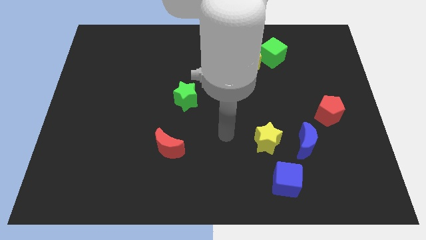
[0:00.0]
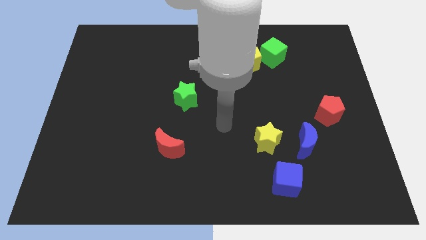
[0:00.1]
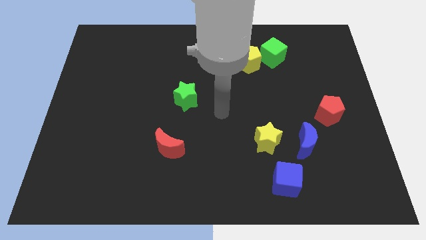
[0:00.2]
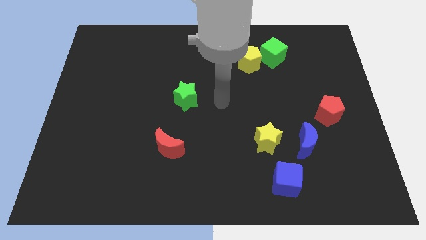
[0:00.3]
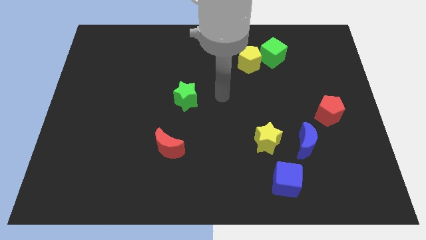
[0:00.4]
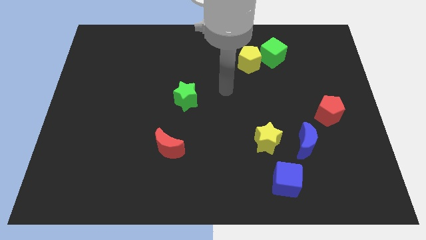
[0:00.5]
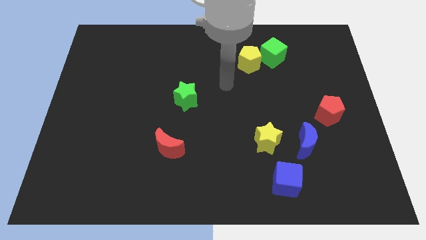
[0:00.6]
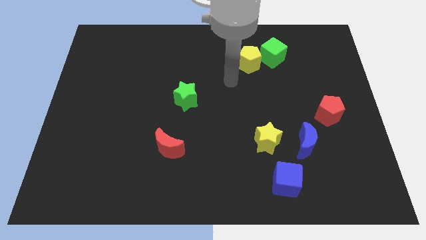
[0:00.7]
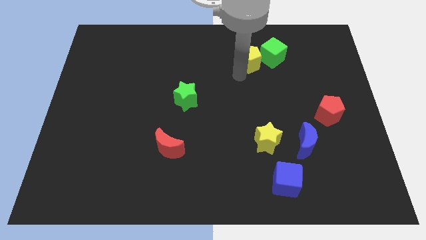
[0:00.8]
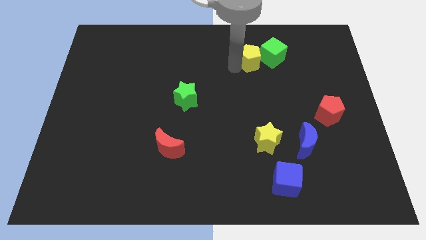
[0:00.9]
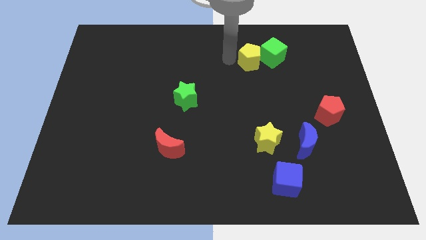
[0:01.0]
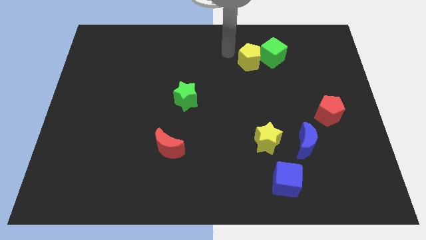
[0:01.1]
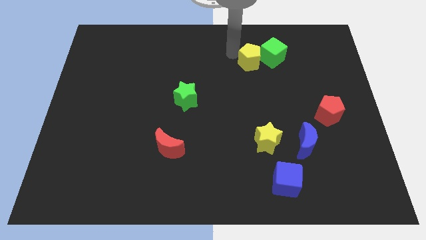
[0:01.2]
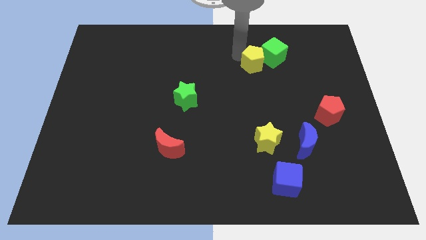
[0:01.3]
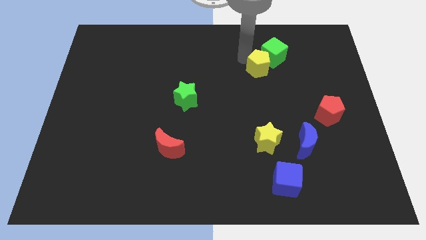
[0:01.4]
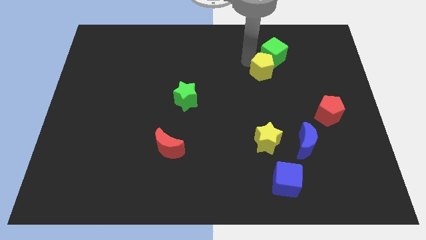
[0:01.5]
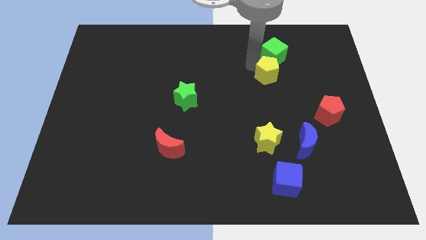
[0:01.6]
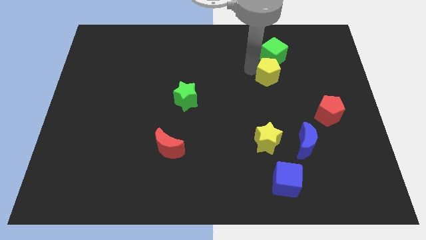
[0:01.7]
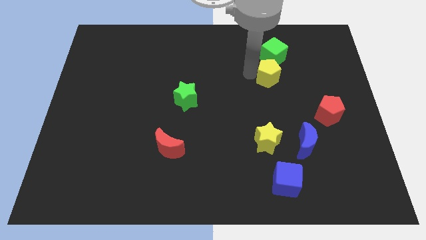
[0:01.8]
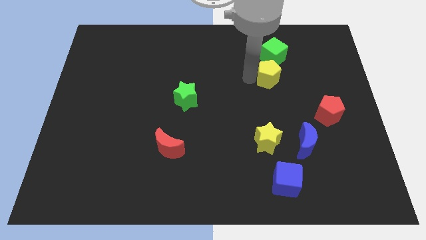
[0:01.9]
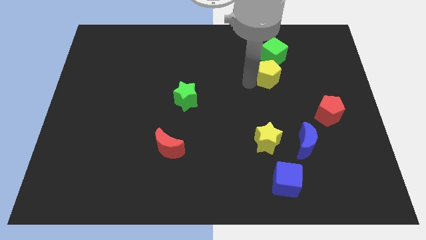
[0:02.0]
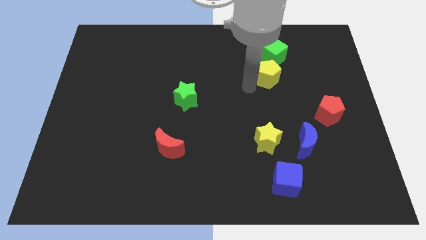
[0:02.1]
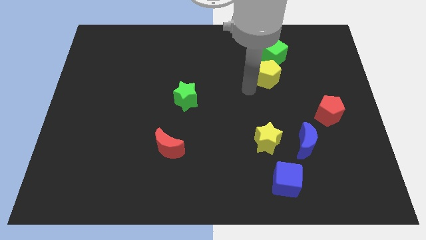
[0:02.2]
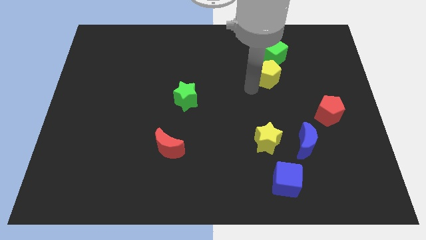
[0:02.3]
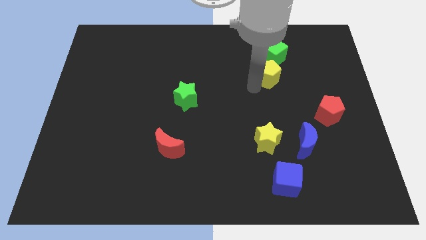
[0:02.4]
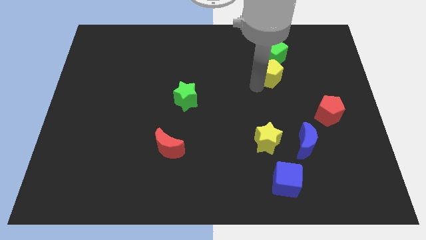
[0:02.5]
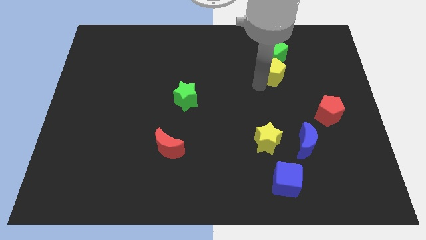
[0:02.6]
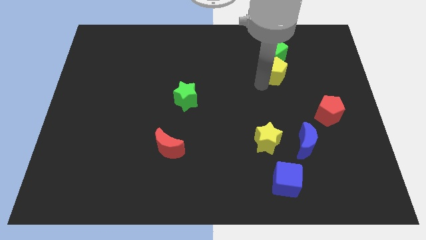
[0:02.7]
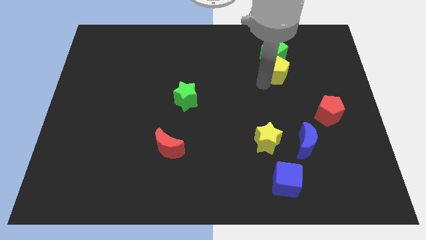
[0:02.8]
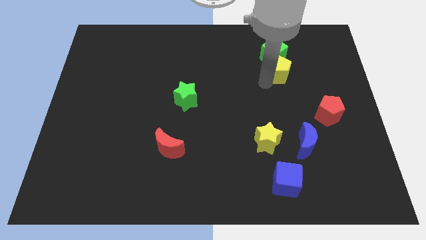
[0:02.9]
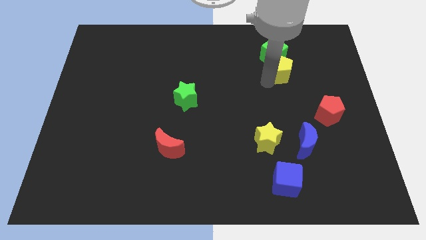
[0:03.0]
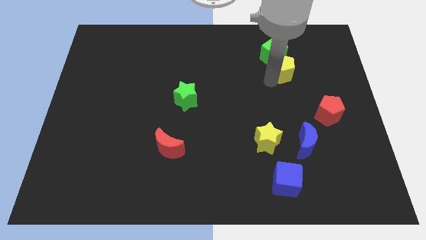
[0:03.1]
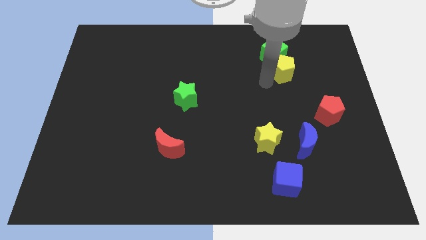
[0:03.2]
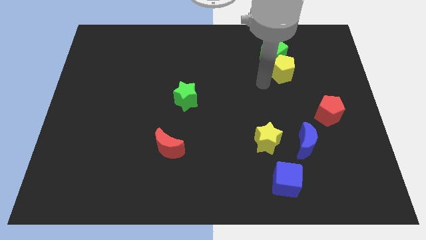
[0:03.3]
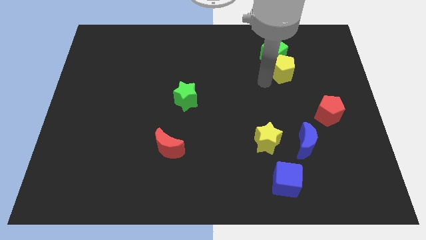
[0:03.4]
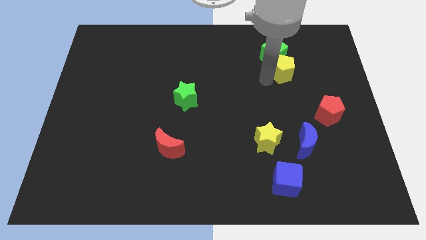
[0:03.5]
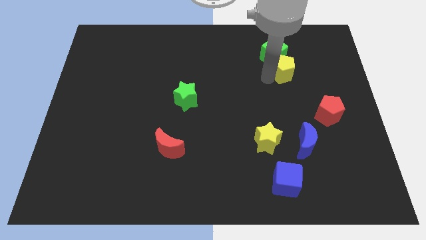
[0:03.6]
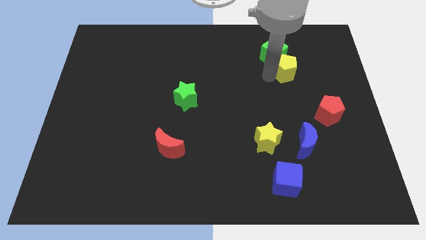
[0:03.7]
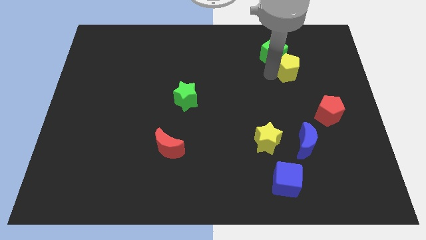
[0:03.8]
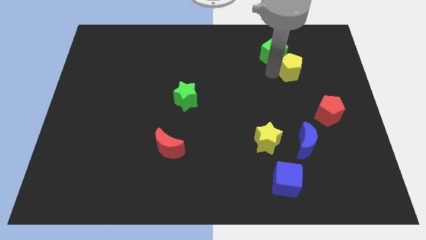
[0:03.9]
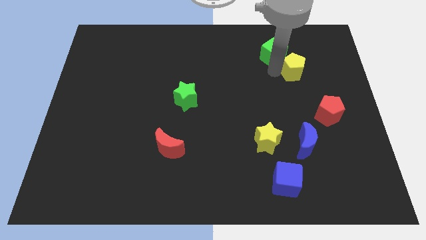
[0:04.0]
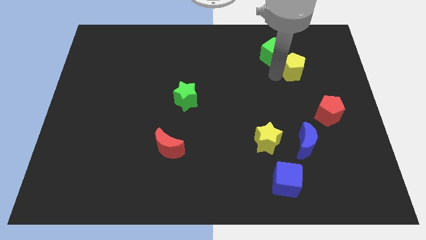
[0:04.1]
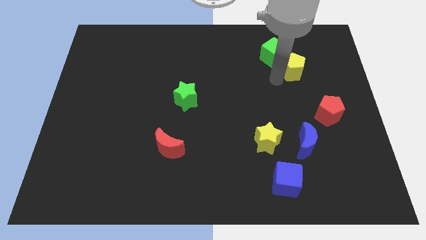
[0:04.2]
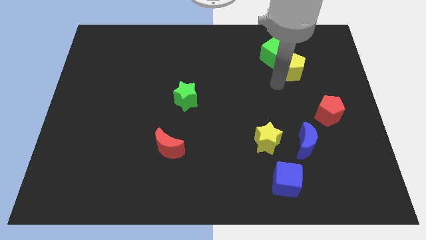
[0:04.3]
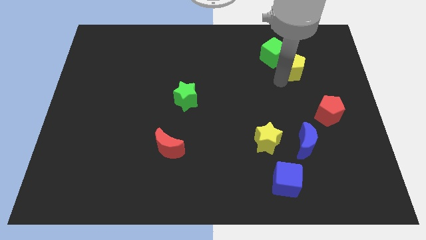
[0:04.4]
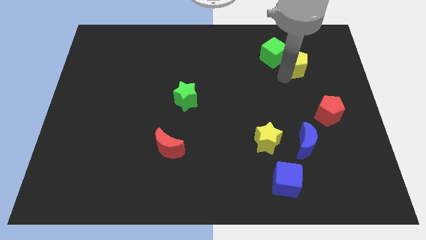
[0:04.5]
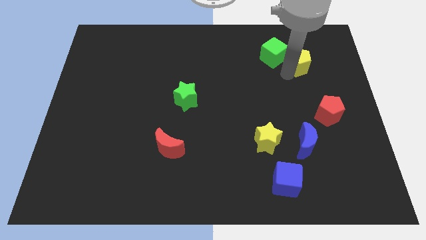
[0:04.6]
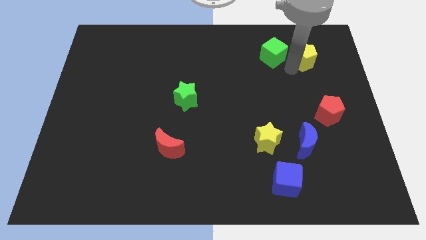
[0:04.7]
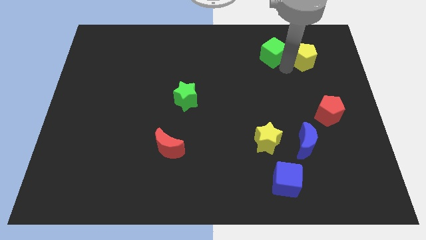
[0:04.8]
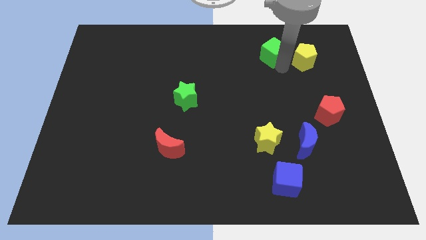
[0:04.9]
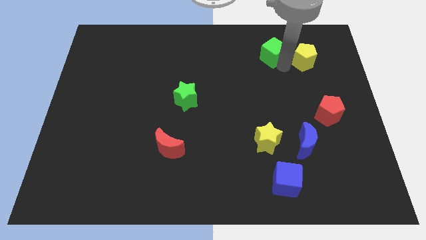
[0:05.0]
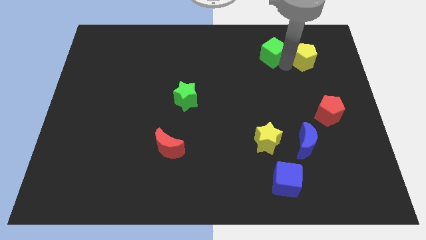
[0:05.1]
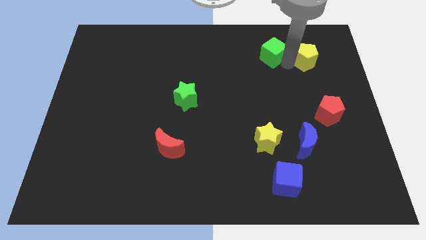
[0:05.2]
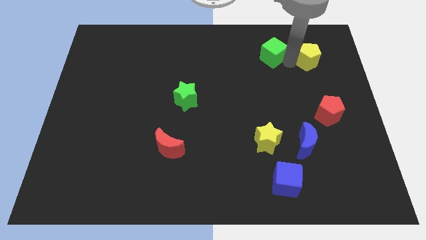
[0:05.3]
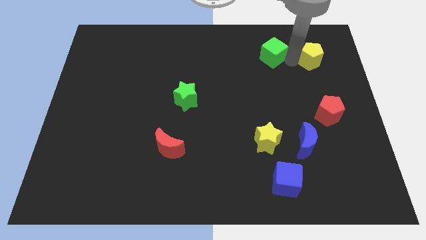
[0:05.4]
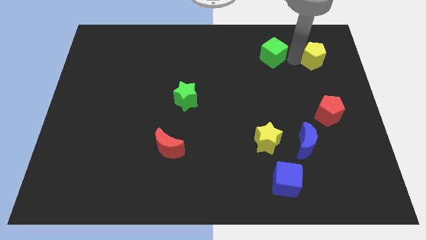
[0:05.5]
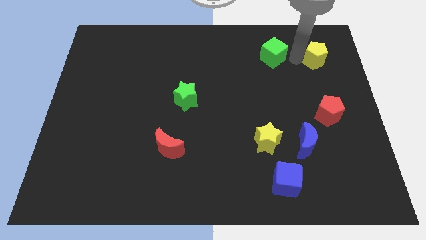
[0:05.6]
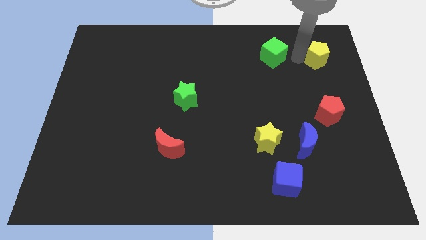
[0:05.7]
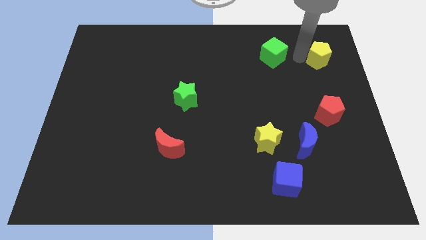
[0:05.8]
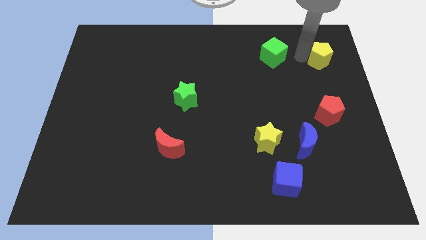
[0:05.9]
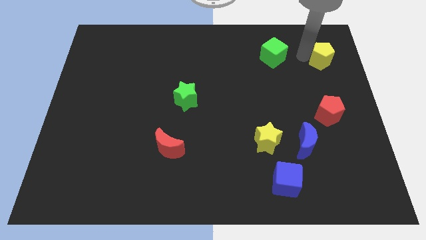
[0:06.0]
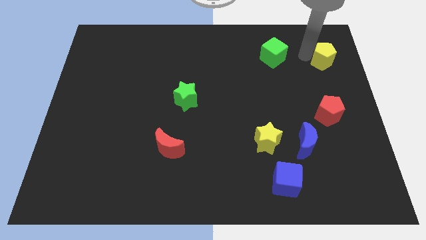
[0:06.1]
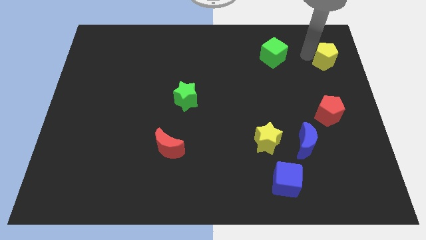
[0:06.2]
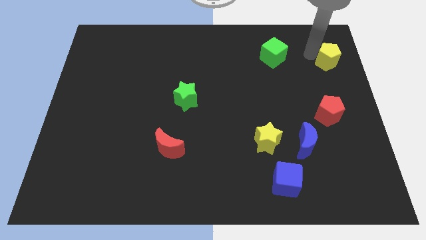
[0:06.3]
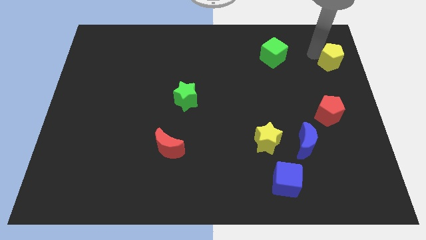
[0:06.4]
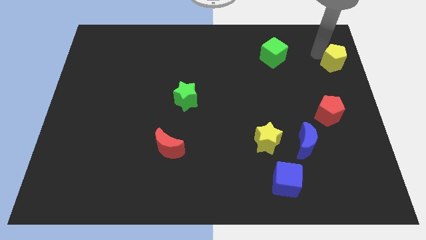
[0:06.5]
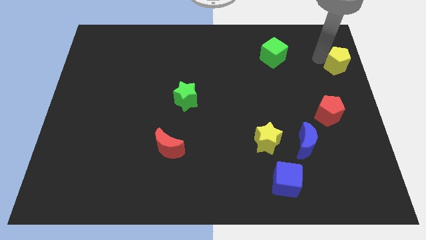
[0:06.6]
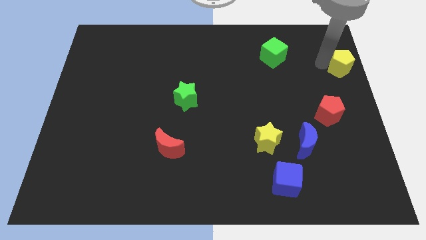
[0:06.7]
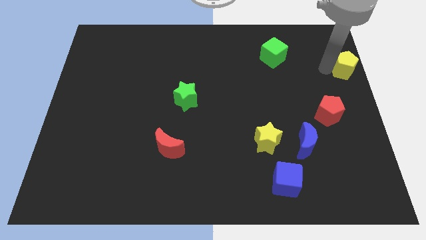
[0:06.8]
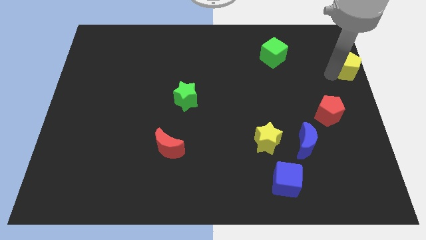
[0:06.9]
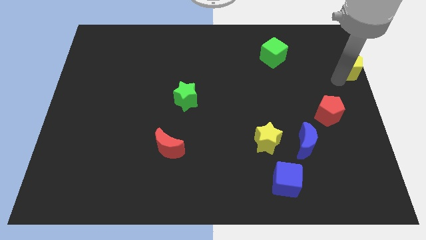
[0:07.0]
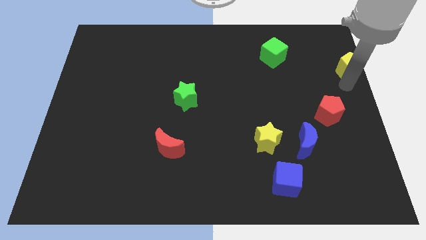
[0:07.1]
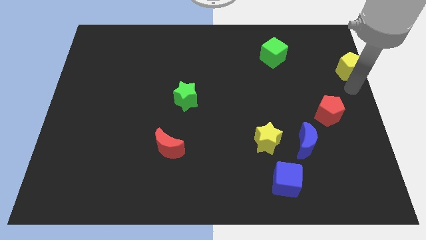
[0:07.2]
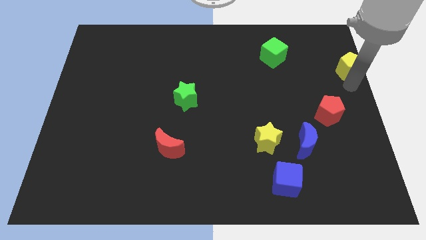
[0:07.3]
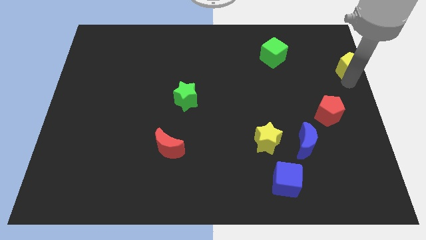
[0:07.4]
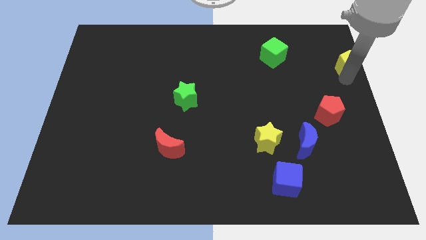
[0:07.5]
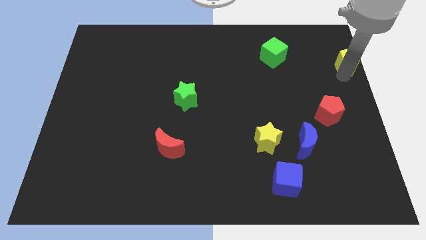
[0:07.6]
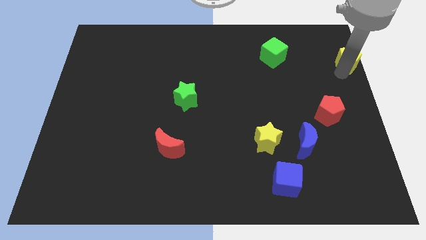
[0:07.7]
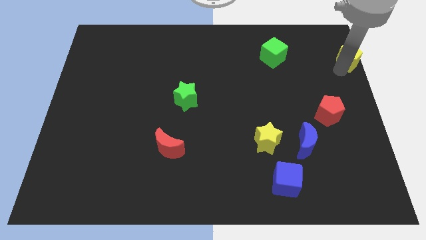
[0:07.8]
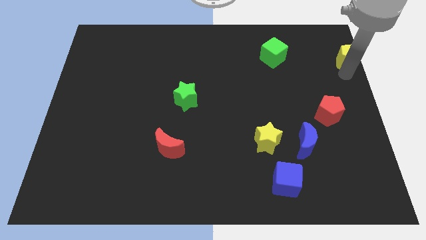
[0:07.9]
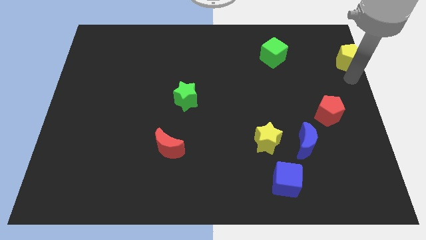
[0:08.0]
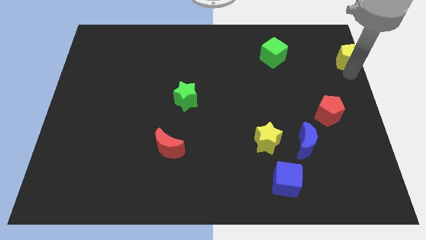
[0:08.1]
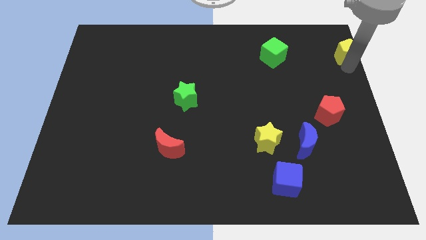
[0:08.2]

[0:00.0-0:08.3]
move the yellow pentagon to the top right of the board
